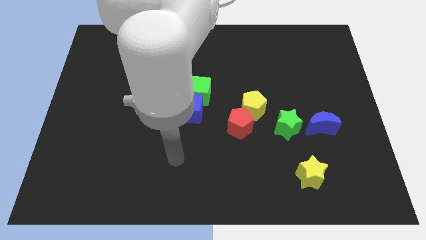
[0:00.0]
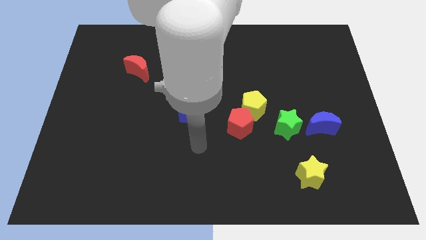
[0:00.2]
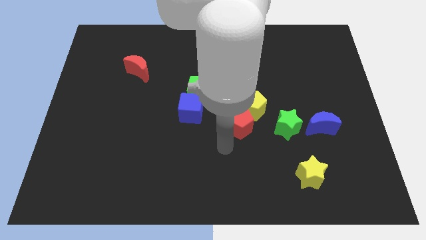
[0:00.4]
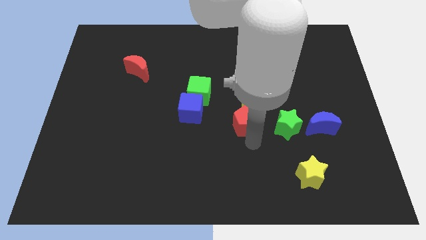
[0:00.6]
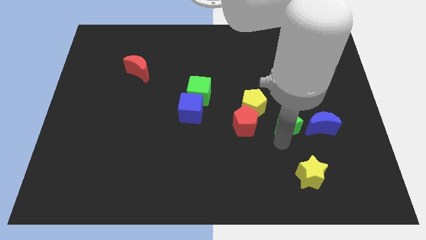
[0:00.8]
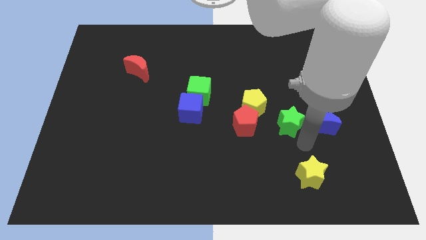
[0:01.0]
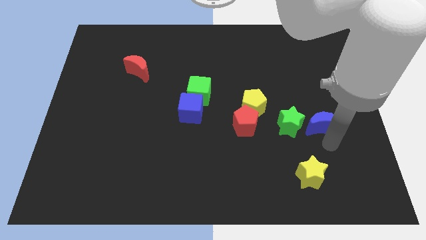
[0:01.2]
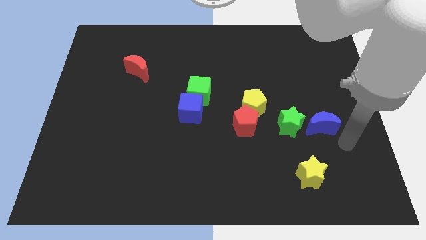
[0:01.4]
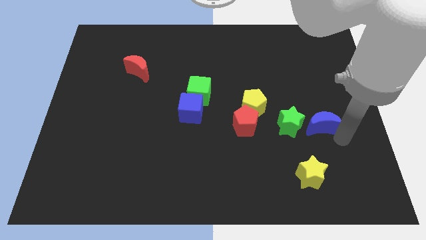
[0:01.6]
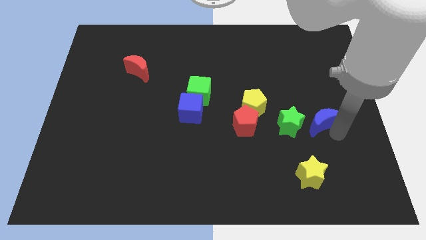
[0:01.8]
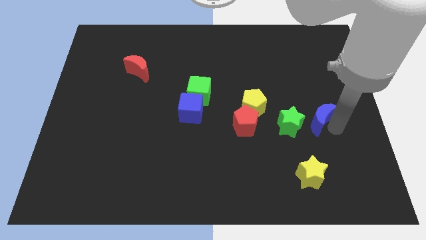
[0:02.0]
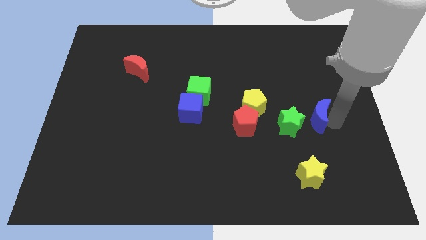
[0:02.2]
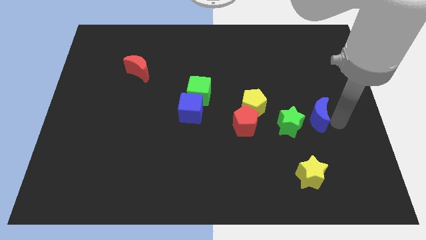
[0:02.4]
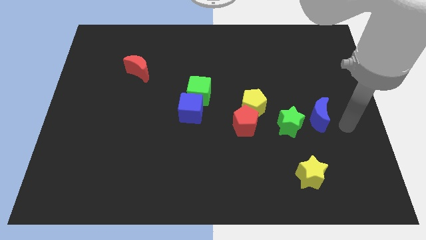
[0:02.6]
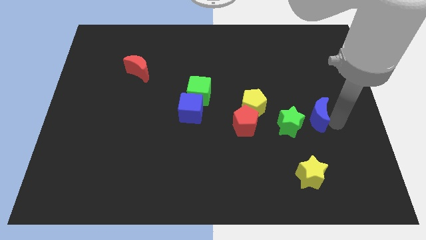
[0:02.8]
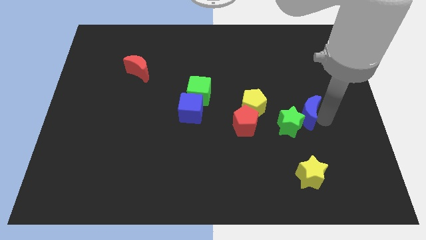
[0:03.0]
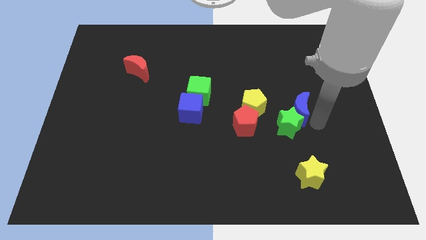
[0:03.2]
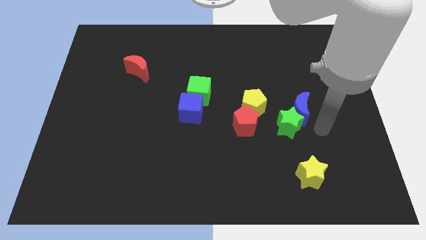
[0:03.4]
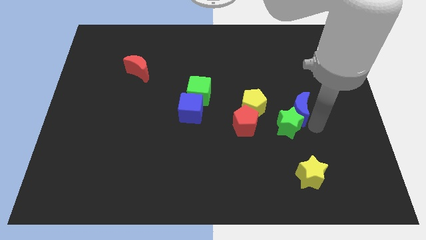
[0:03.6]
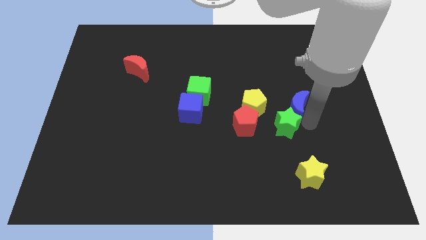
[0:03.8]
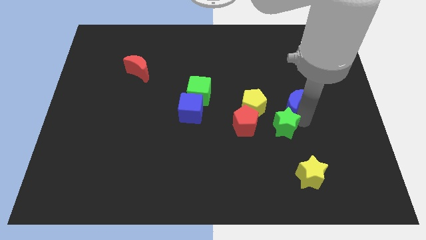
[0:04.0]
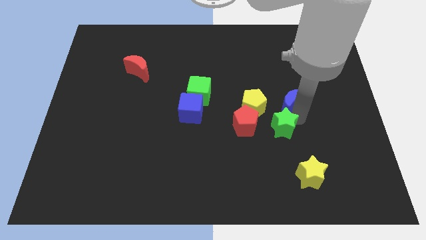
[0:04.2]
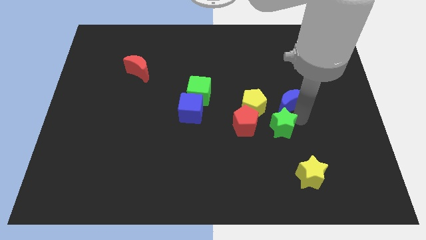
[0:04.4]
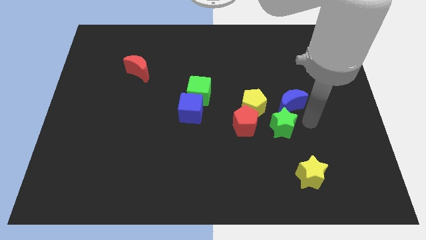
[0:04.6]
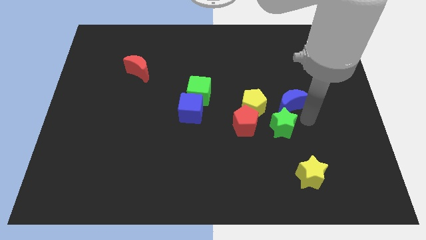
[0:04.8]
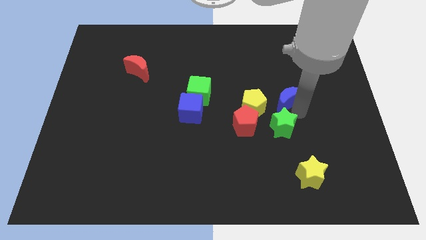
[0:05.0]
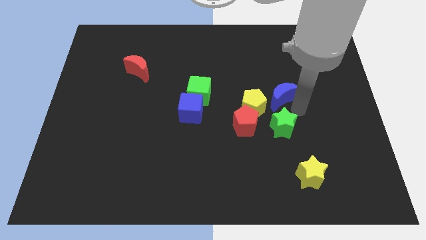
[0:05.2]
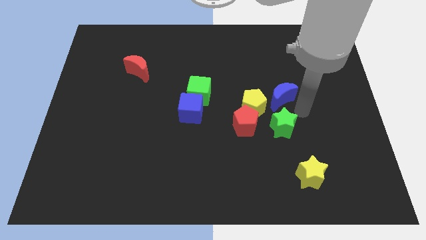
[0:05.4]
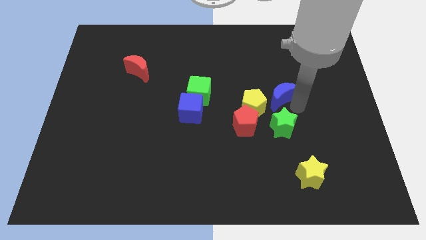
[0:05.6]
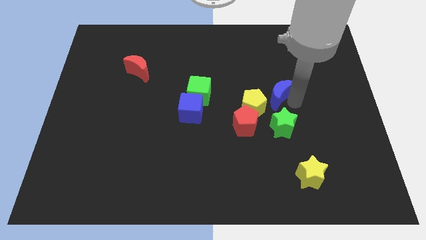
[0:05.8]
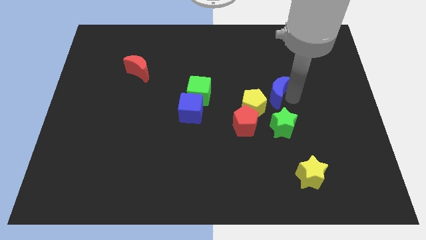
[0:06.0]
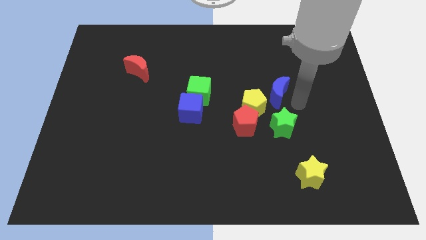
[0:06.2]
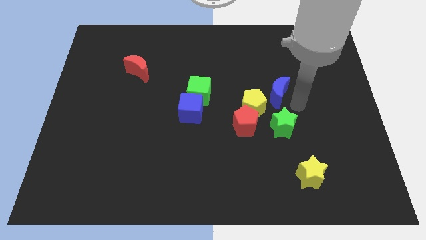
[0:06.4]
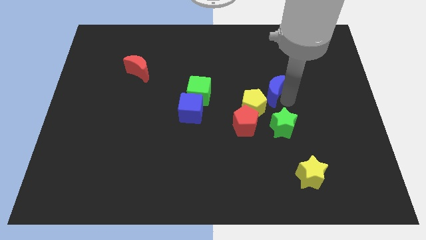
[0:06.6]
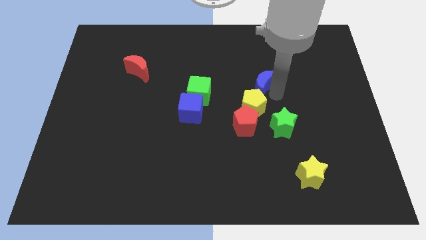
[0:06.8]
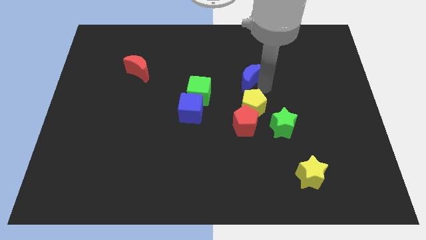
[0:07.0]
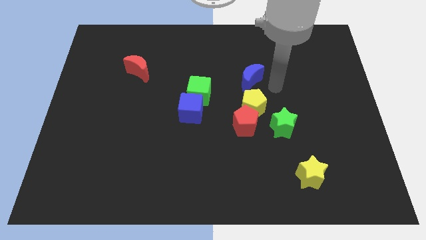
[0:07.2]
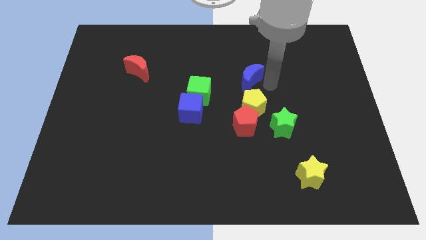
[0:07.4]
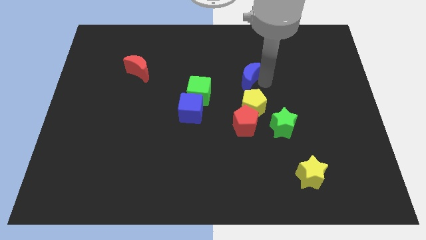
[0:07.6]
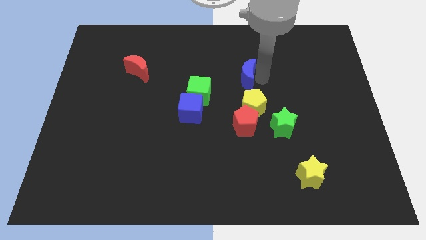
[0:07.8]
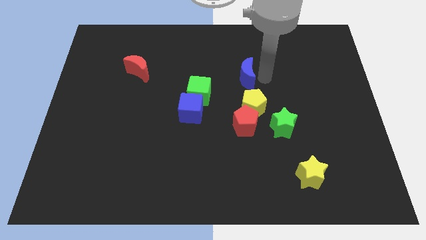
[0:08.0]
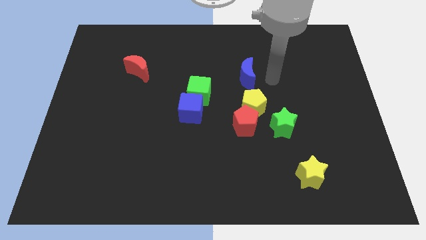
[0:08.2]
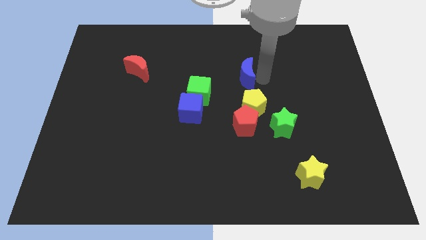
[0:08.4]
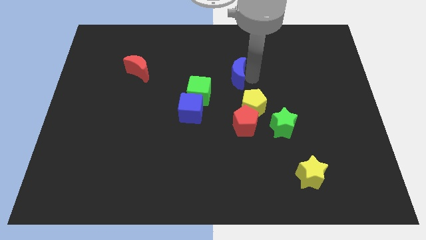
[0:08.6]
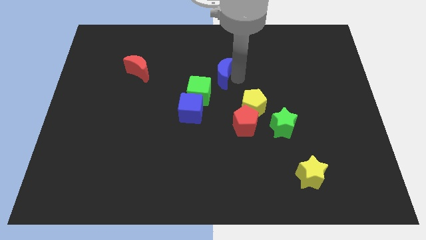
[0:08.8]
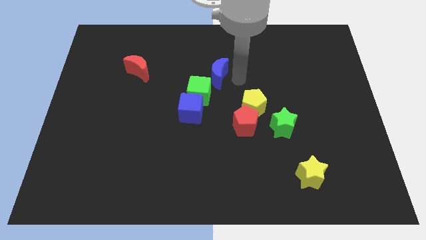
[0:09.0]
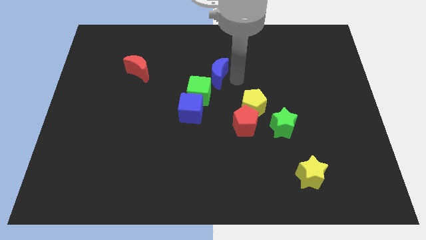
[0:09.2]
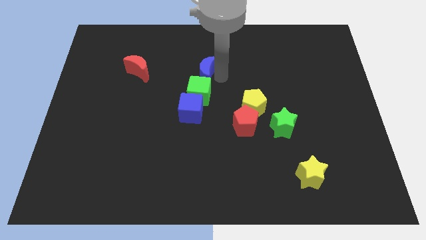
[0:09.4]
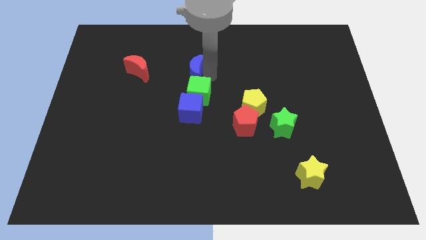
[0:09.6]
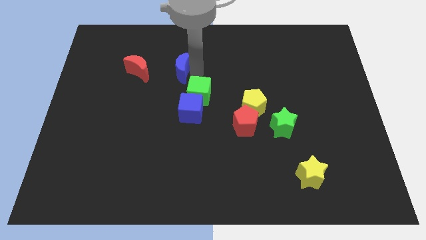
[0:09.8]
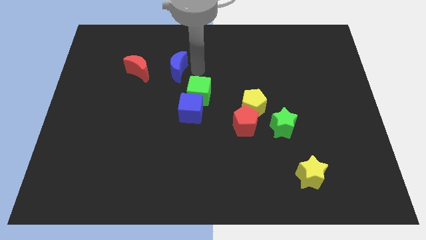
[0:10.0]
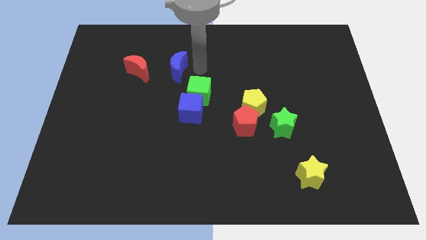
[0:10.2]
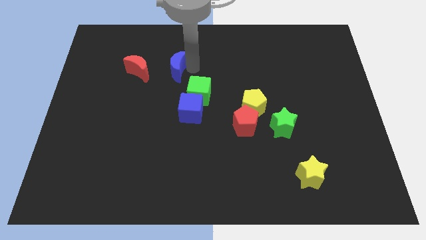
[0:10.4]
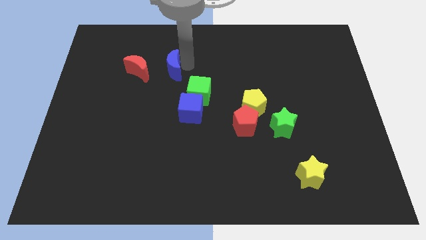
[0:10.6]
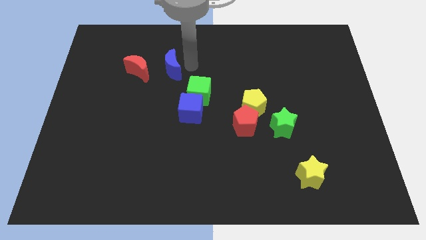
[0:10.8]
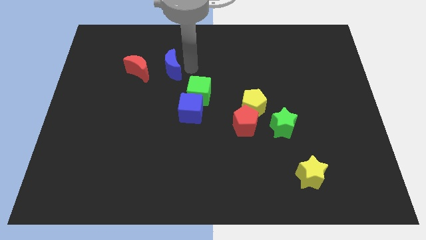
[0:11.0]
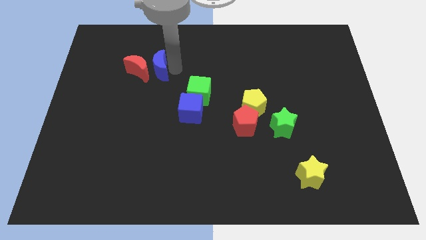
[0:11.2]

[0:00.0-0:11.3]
slide the blue moon next to the red moon

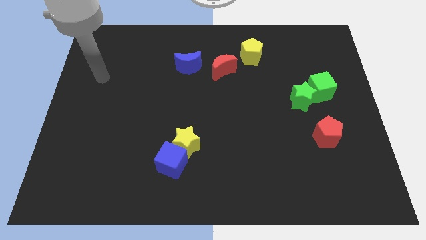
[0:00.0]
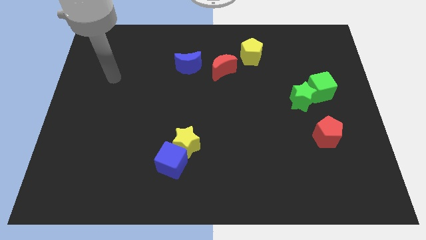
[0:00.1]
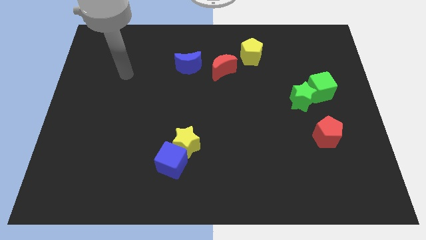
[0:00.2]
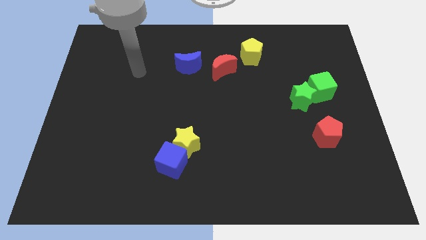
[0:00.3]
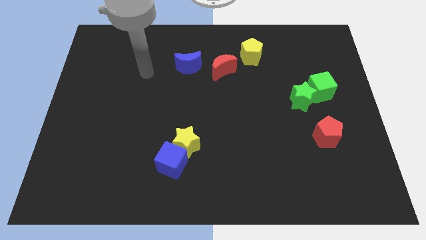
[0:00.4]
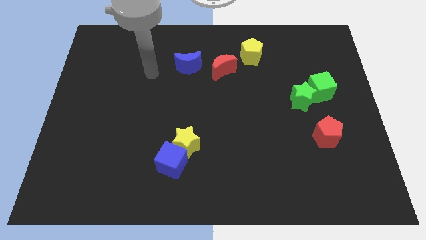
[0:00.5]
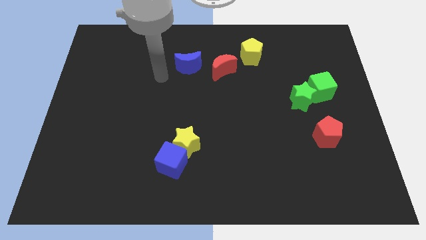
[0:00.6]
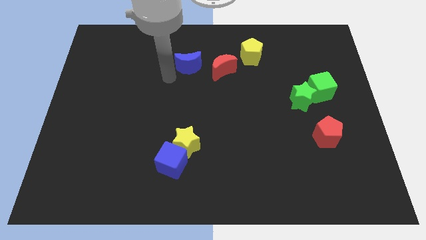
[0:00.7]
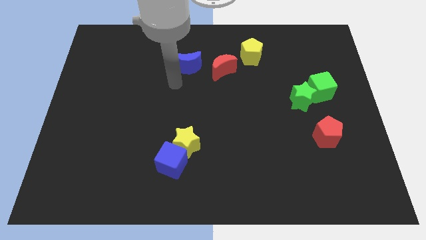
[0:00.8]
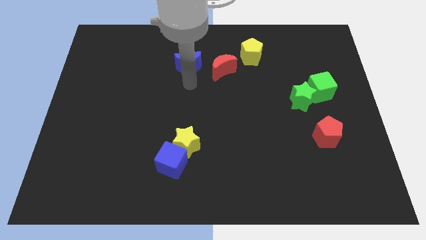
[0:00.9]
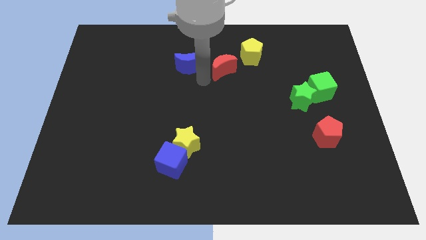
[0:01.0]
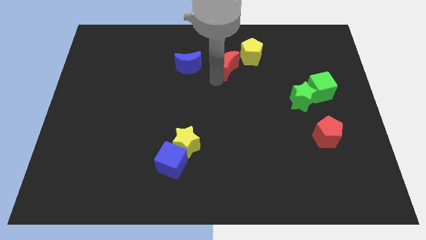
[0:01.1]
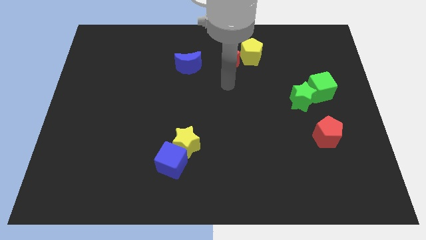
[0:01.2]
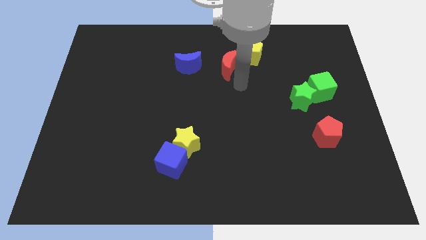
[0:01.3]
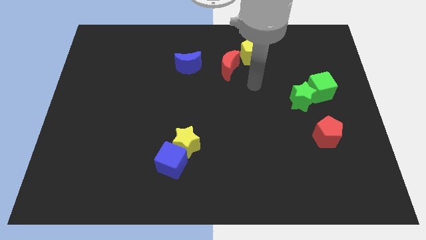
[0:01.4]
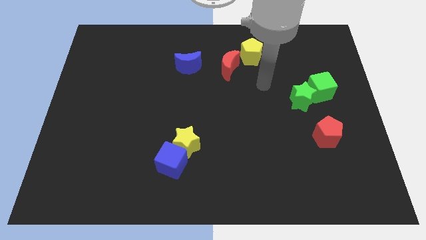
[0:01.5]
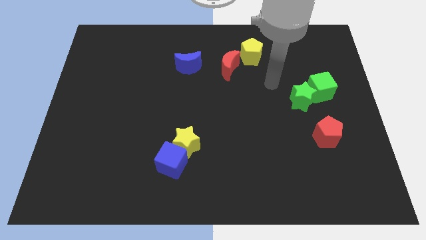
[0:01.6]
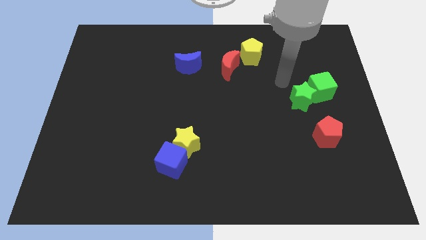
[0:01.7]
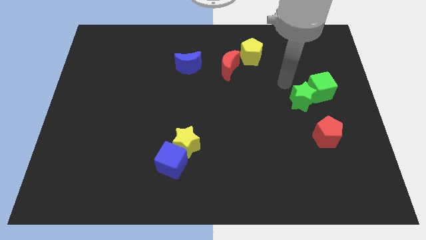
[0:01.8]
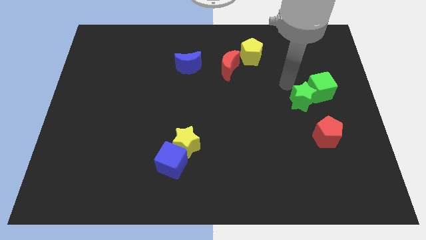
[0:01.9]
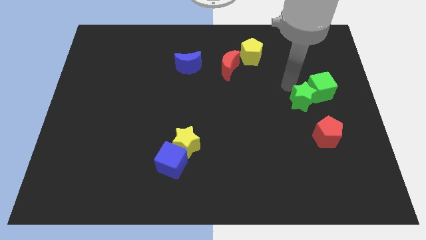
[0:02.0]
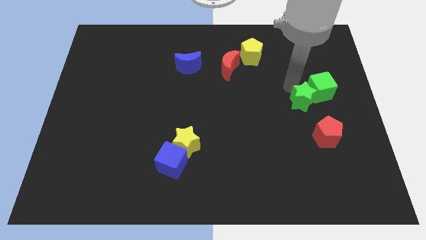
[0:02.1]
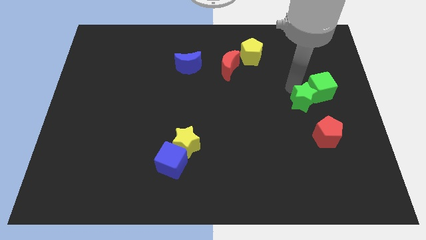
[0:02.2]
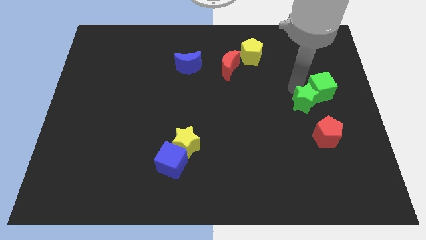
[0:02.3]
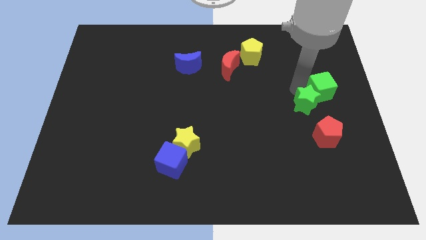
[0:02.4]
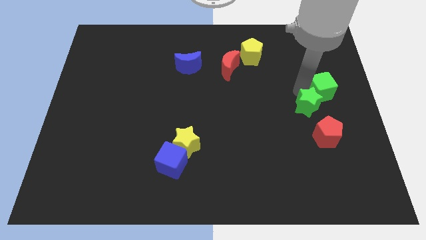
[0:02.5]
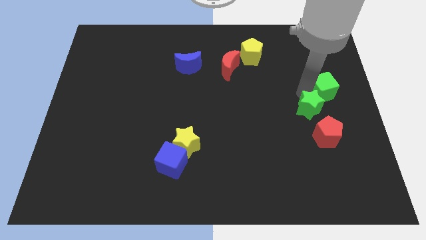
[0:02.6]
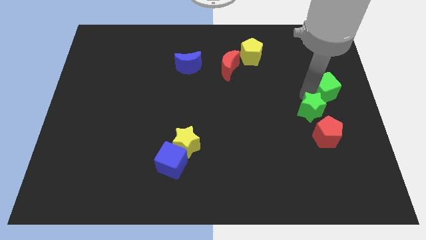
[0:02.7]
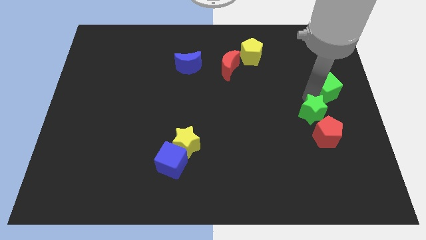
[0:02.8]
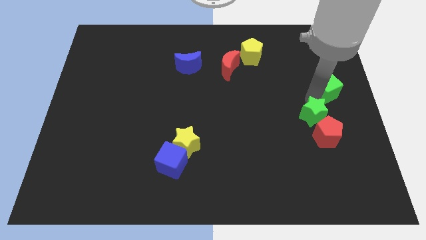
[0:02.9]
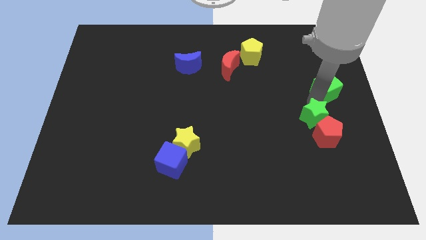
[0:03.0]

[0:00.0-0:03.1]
slide the green star towards the red pentagon
